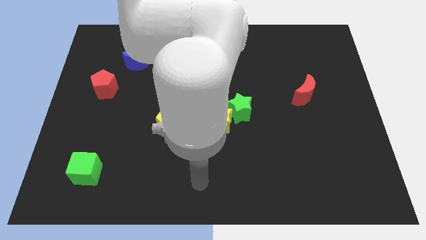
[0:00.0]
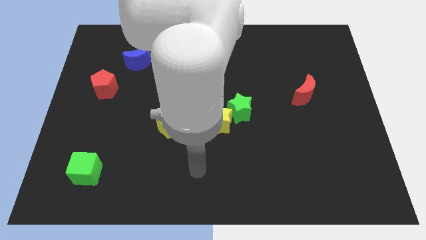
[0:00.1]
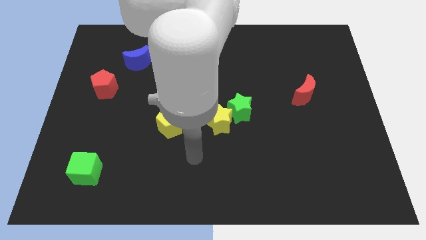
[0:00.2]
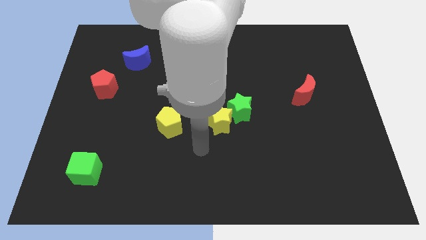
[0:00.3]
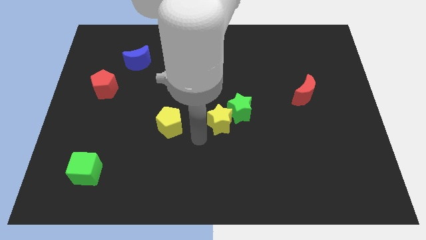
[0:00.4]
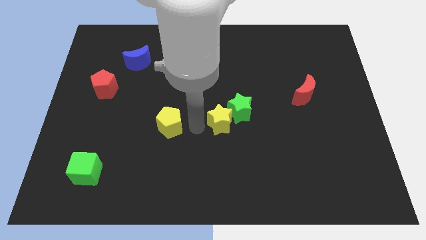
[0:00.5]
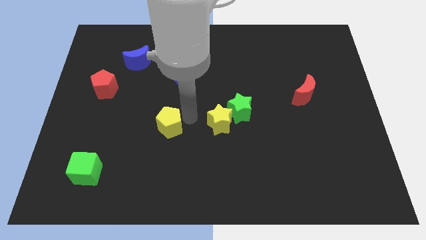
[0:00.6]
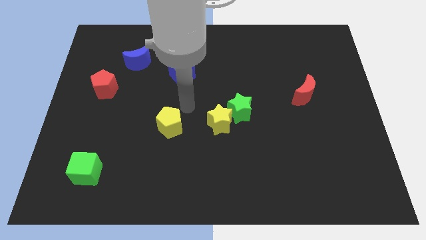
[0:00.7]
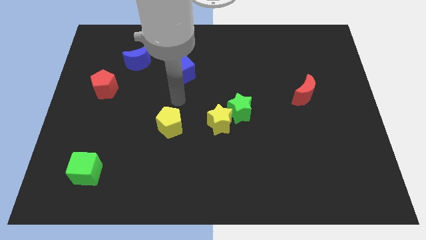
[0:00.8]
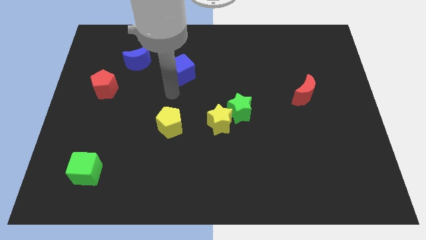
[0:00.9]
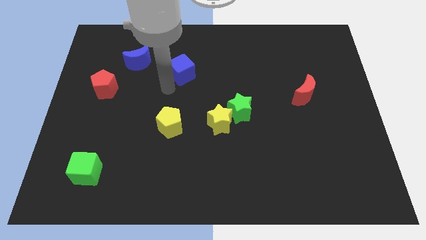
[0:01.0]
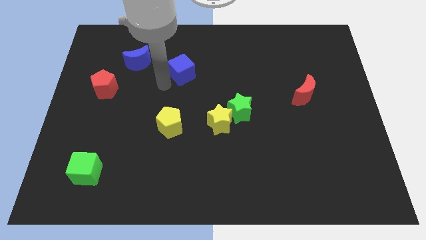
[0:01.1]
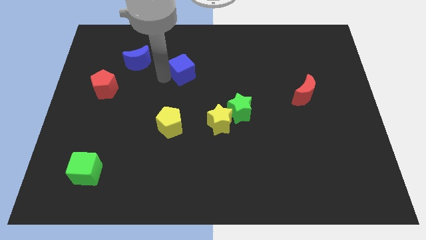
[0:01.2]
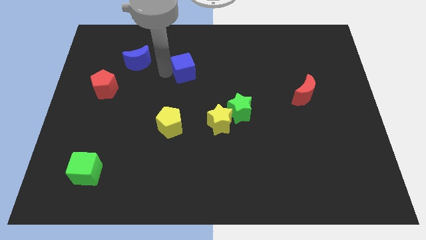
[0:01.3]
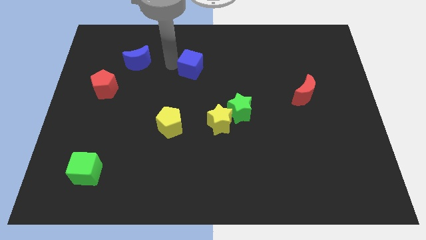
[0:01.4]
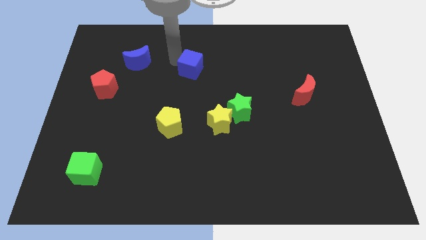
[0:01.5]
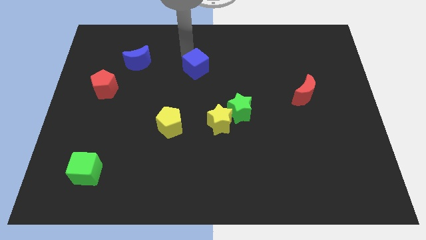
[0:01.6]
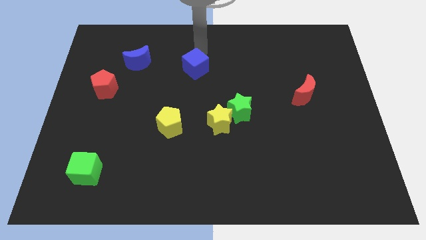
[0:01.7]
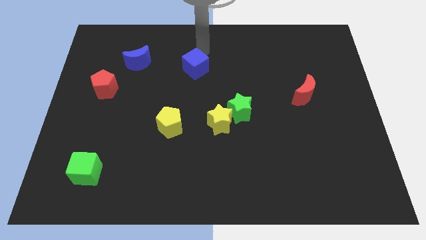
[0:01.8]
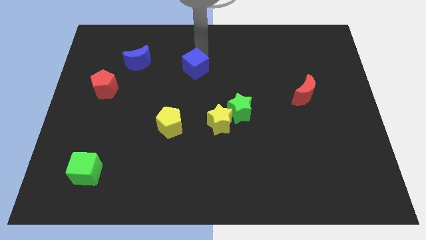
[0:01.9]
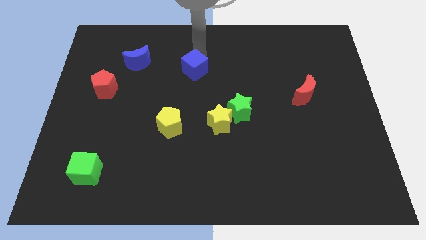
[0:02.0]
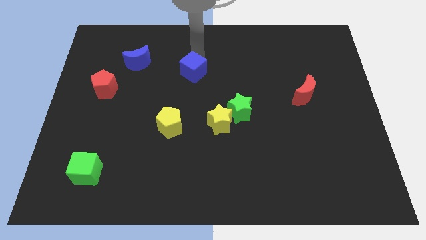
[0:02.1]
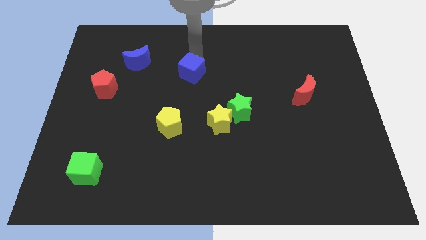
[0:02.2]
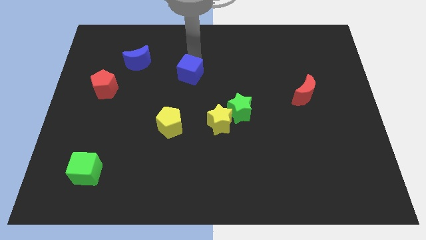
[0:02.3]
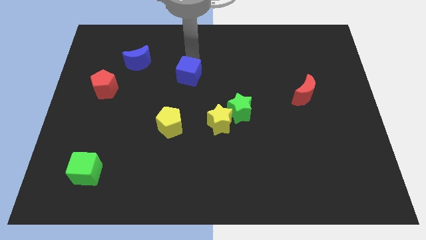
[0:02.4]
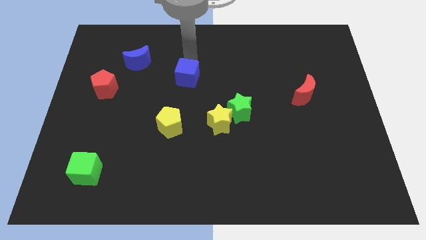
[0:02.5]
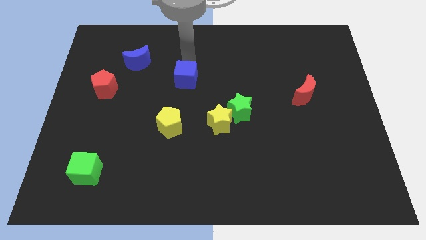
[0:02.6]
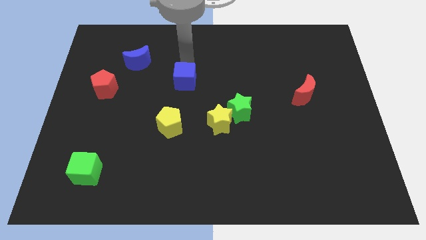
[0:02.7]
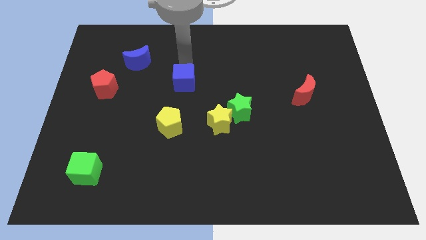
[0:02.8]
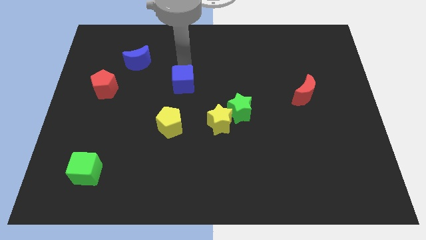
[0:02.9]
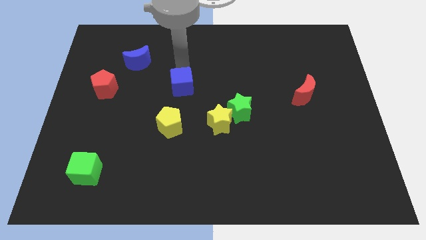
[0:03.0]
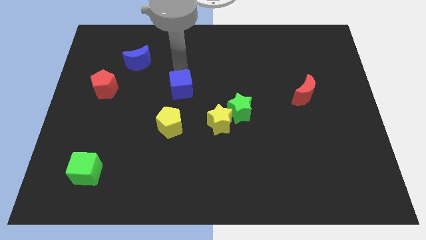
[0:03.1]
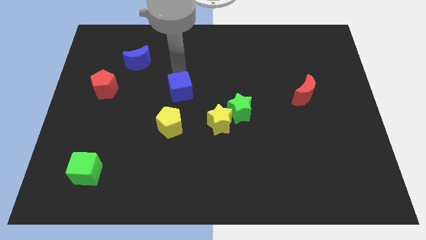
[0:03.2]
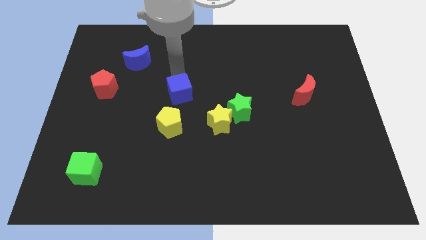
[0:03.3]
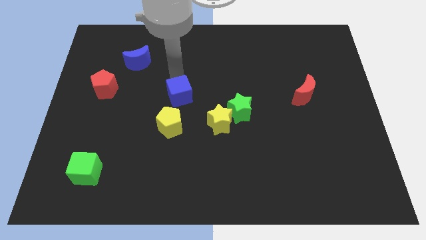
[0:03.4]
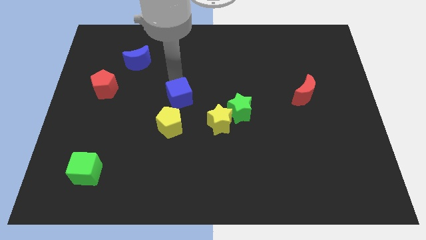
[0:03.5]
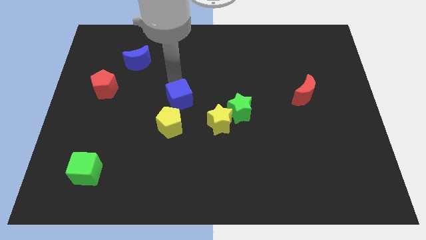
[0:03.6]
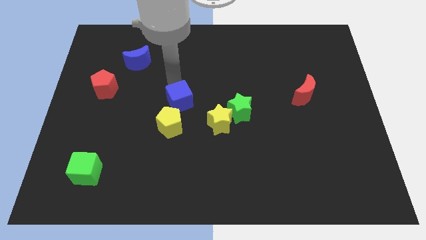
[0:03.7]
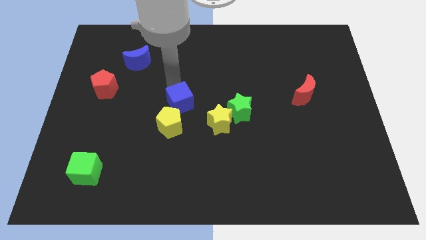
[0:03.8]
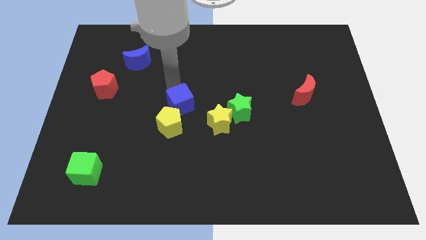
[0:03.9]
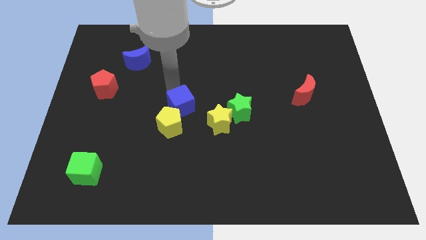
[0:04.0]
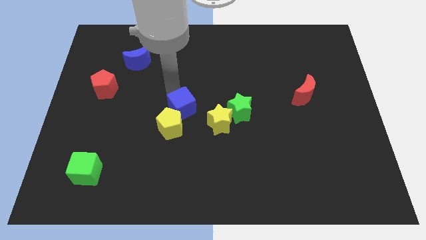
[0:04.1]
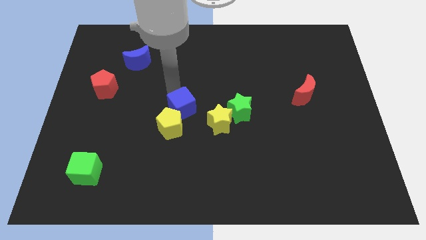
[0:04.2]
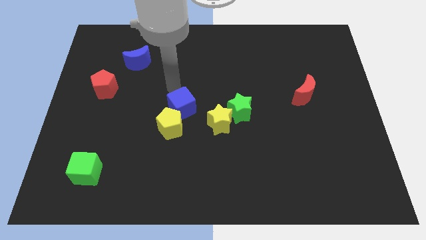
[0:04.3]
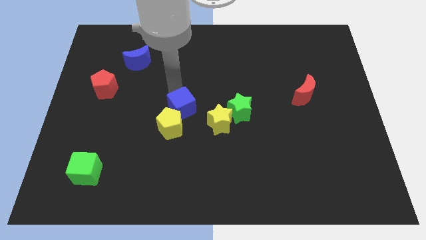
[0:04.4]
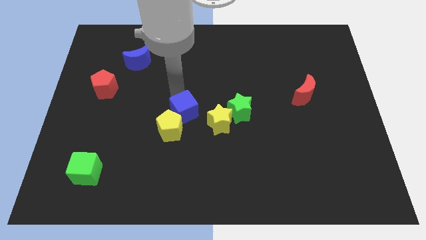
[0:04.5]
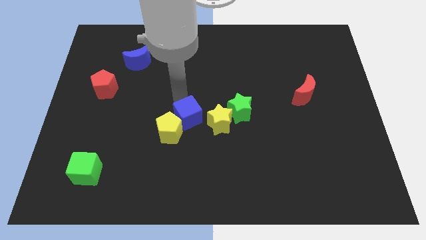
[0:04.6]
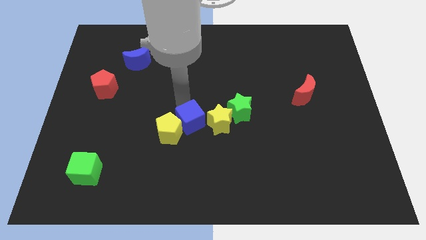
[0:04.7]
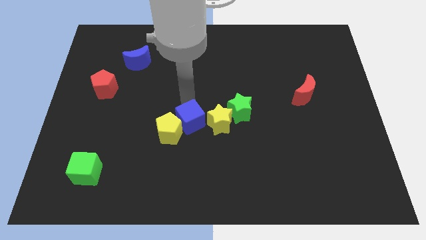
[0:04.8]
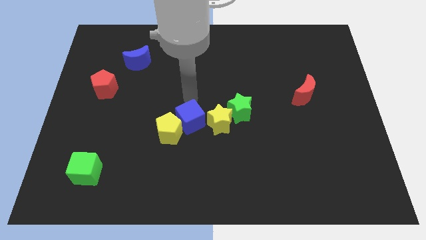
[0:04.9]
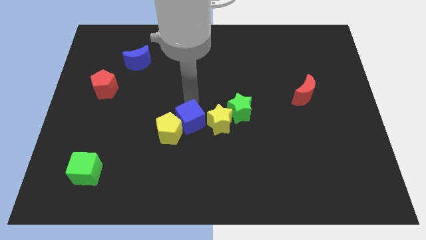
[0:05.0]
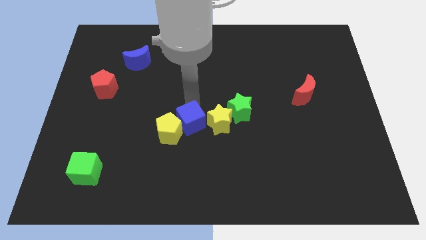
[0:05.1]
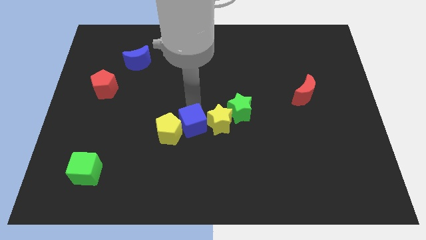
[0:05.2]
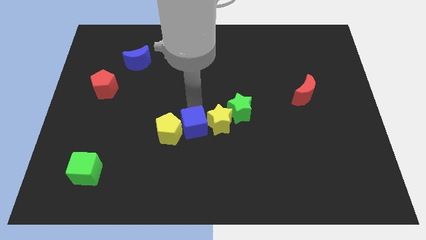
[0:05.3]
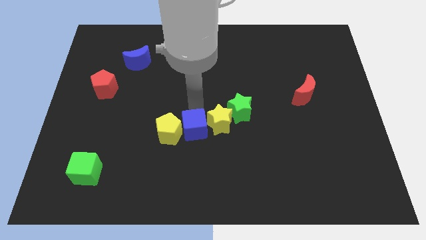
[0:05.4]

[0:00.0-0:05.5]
put the blue cube diagonally down and to the right of the yellow pentagon

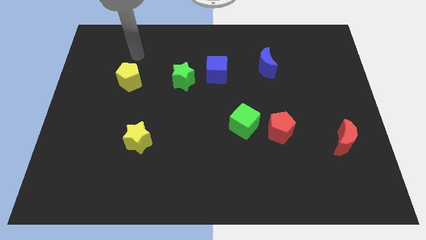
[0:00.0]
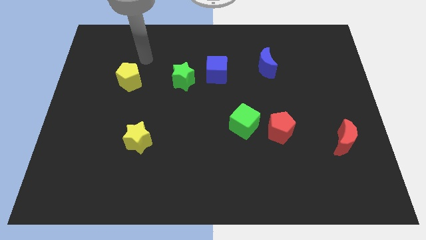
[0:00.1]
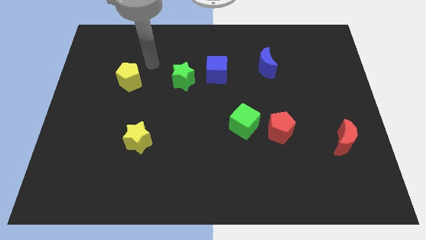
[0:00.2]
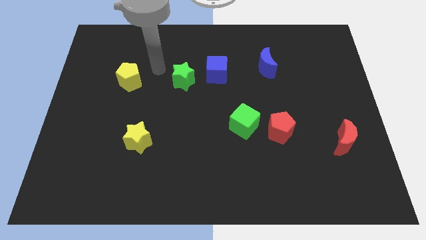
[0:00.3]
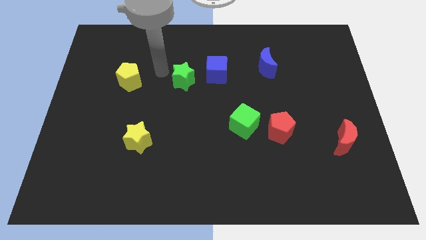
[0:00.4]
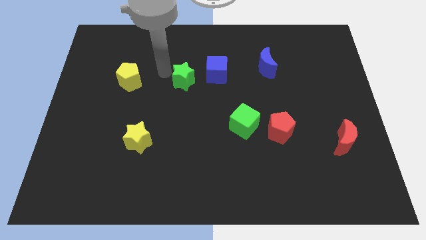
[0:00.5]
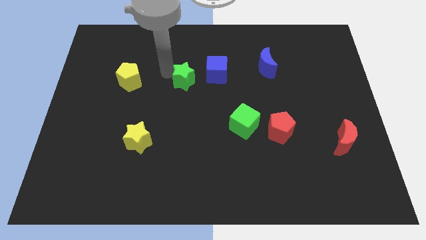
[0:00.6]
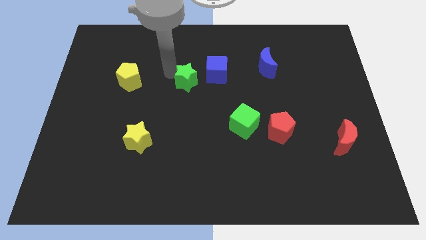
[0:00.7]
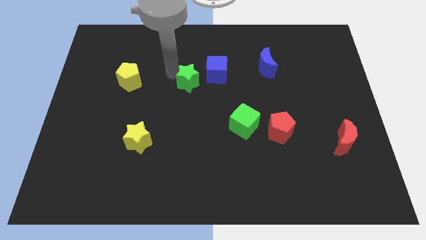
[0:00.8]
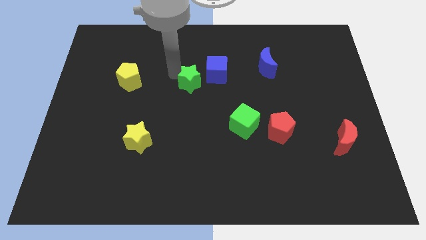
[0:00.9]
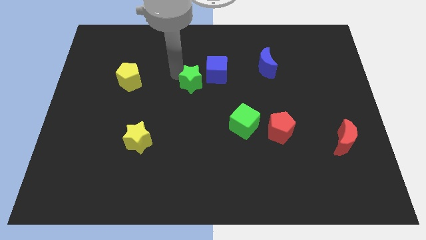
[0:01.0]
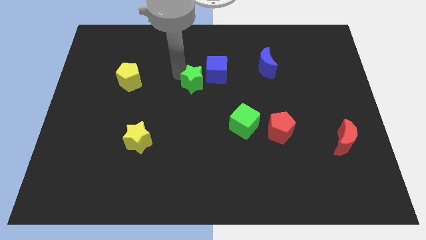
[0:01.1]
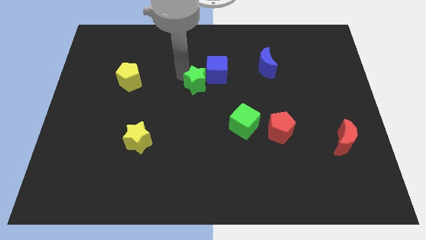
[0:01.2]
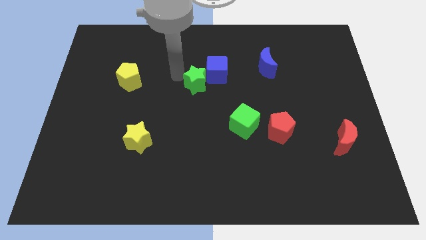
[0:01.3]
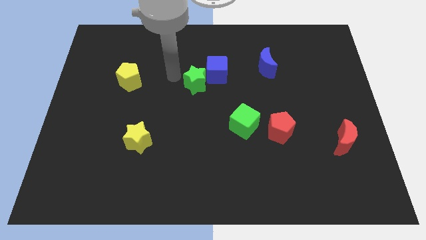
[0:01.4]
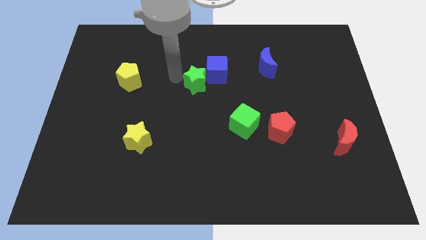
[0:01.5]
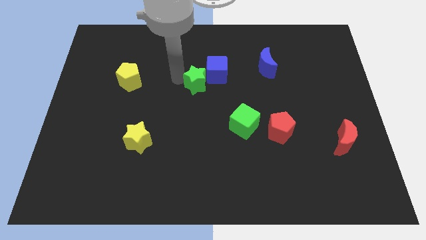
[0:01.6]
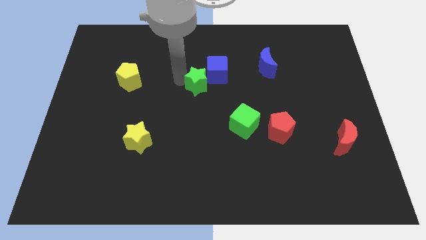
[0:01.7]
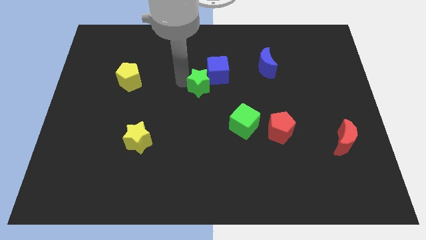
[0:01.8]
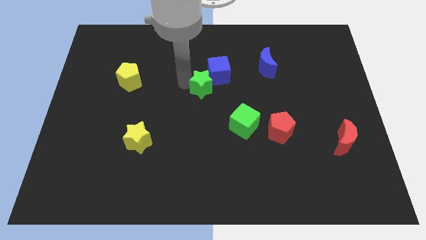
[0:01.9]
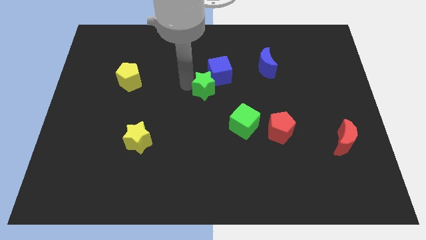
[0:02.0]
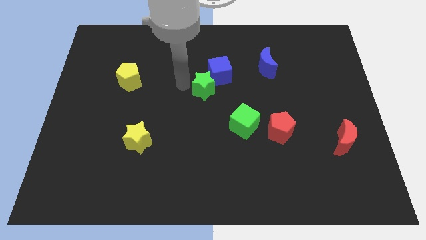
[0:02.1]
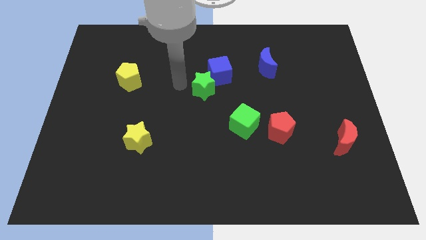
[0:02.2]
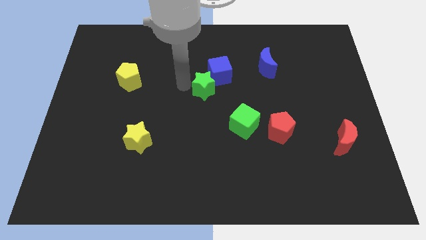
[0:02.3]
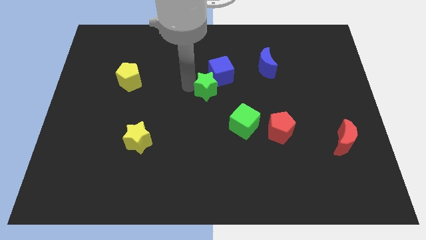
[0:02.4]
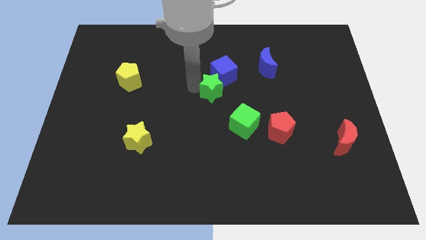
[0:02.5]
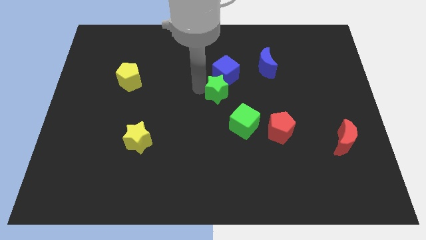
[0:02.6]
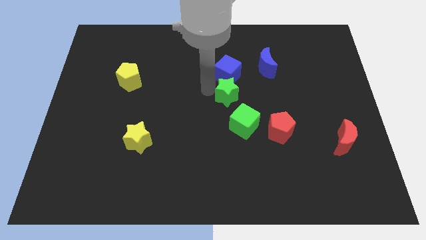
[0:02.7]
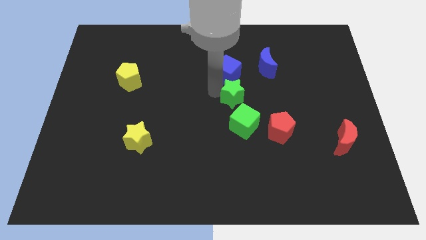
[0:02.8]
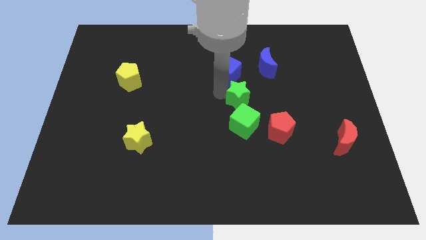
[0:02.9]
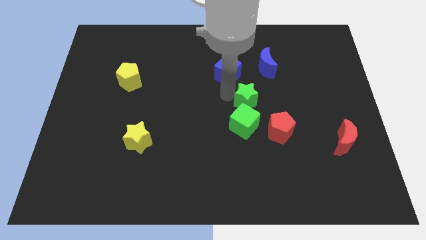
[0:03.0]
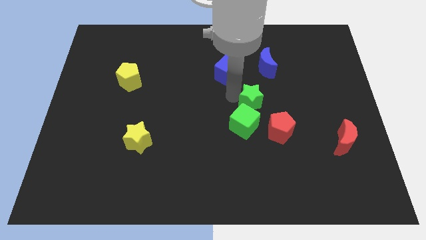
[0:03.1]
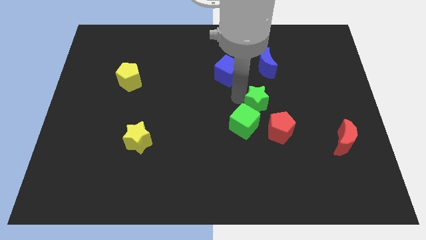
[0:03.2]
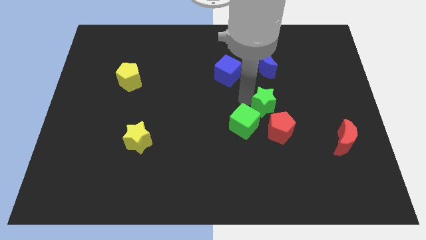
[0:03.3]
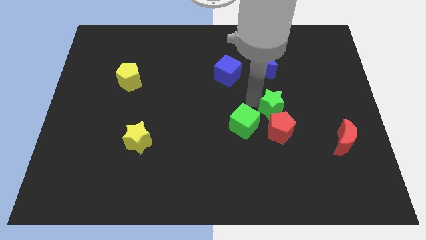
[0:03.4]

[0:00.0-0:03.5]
move the green star just right of the green cube
